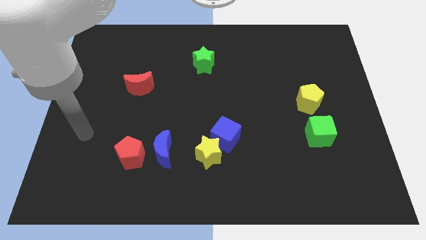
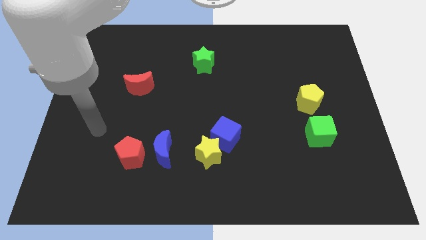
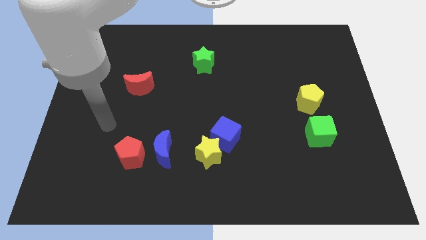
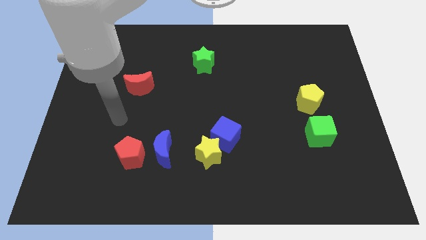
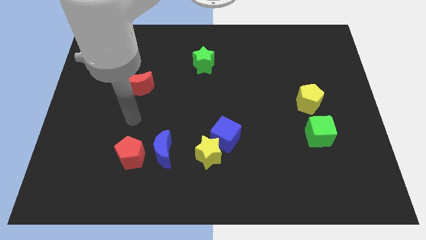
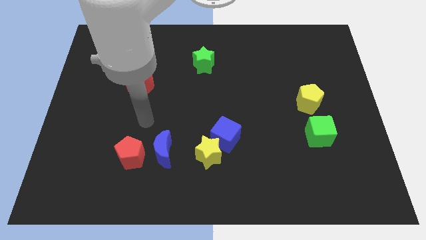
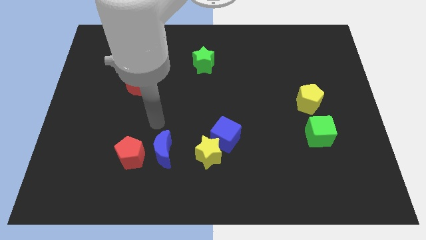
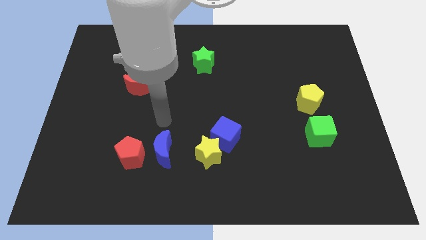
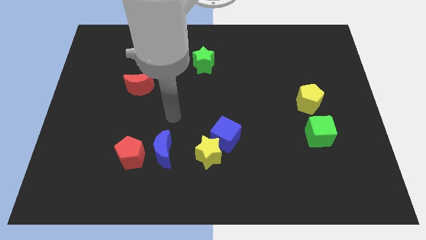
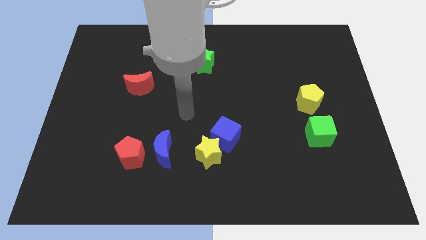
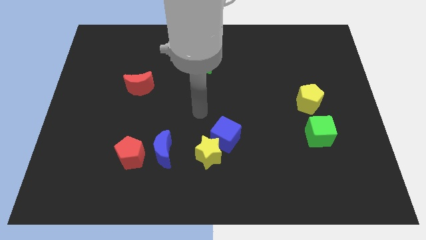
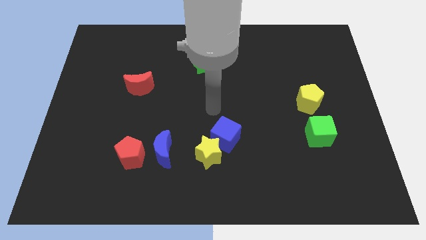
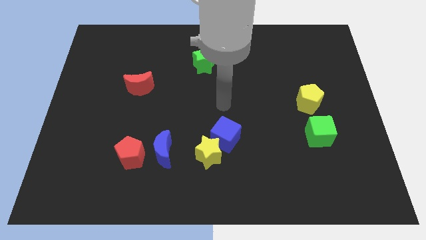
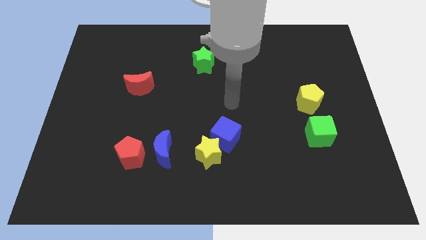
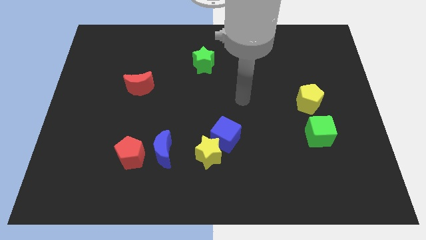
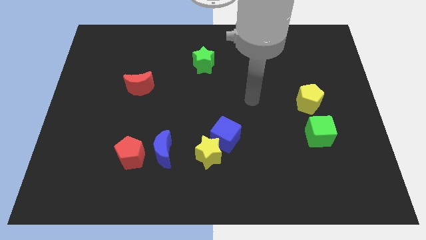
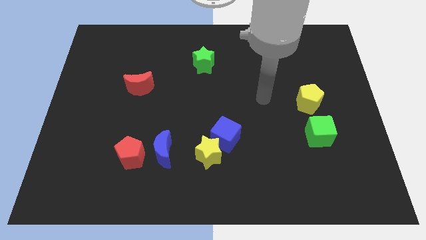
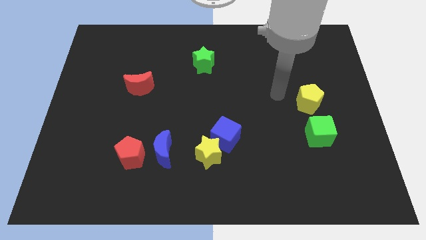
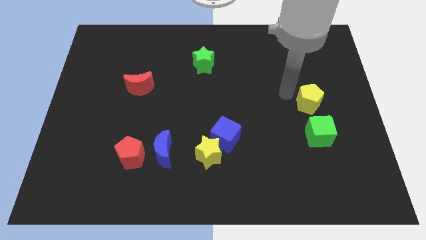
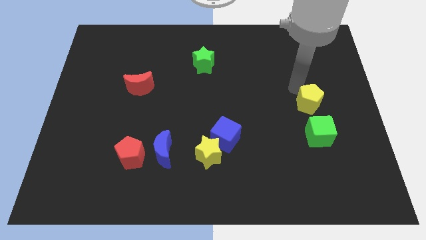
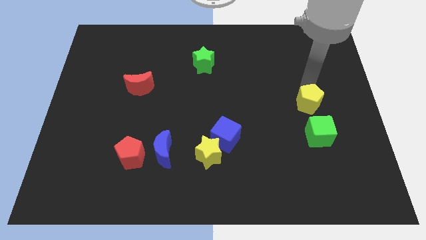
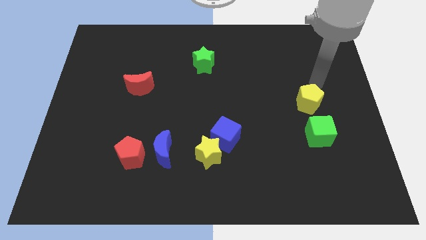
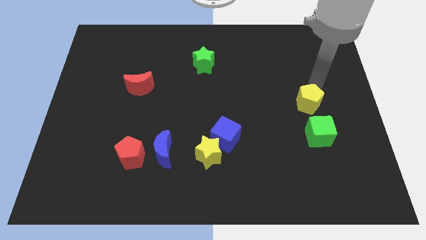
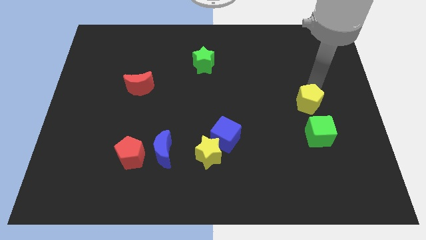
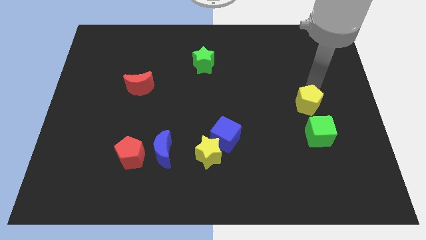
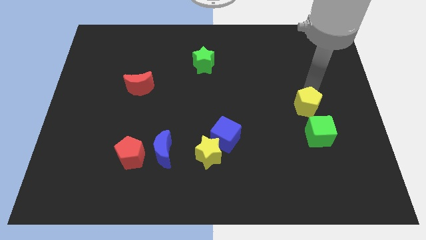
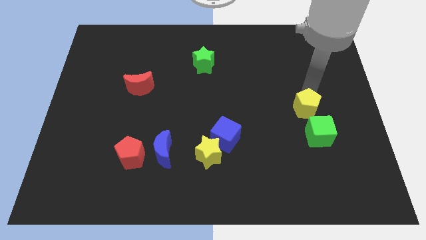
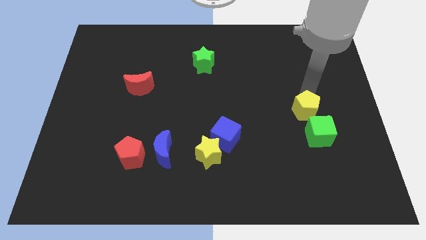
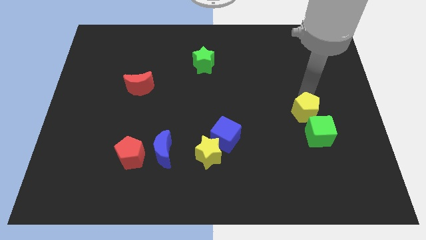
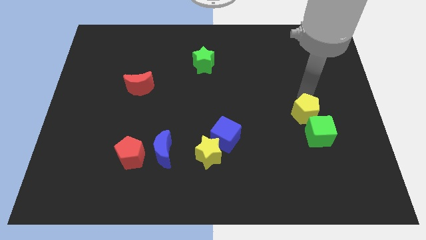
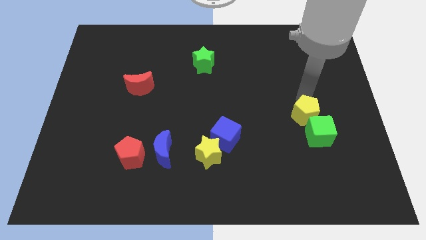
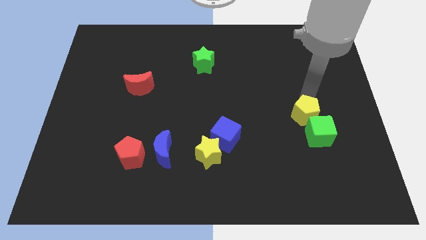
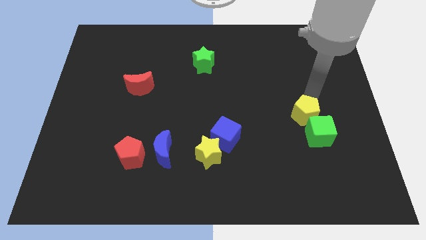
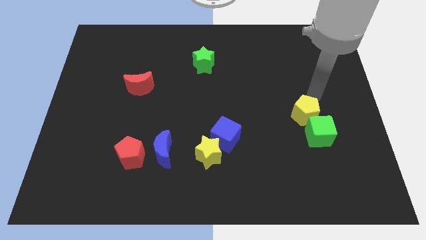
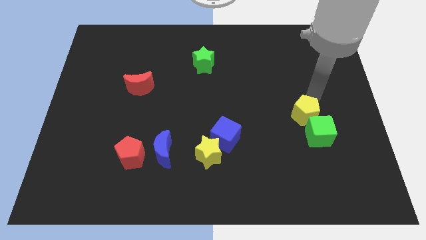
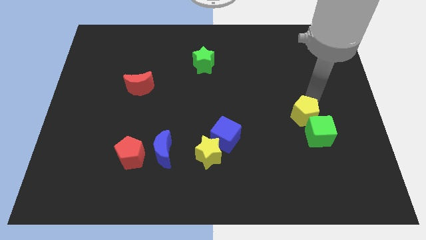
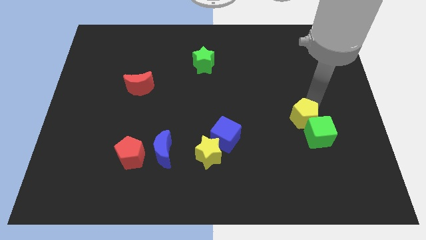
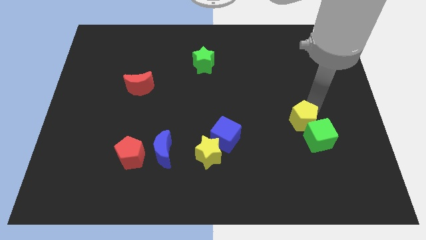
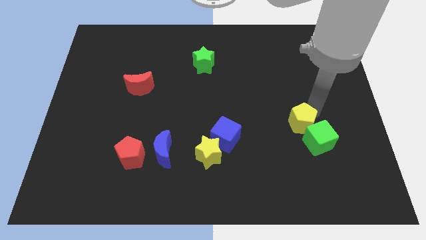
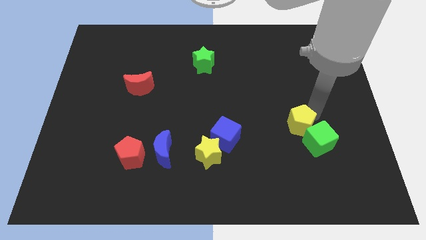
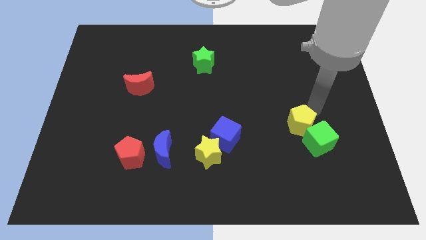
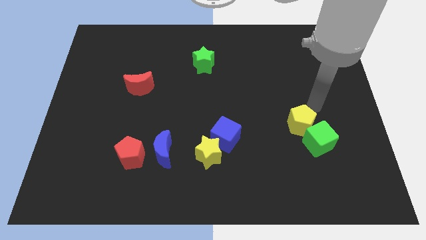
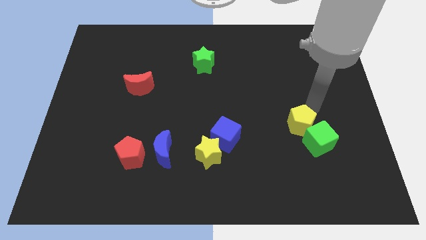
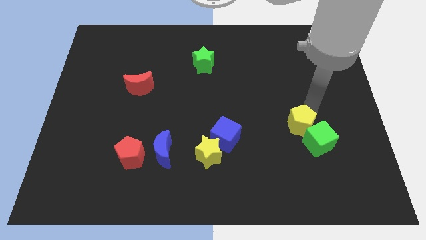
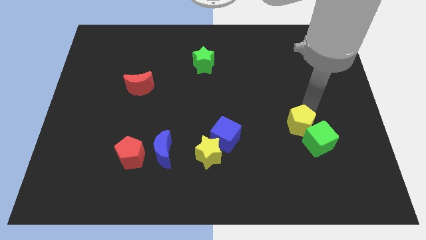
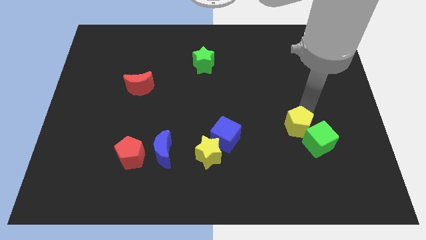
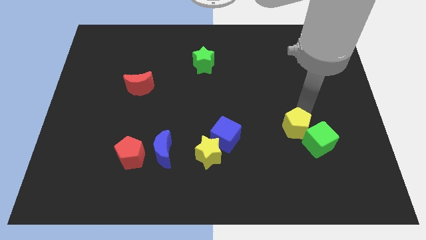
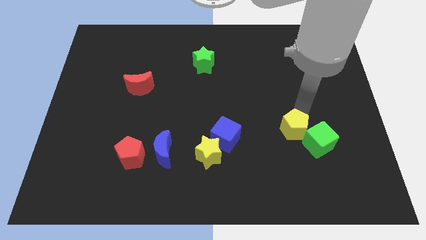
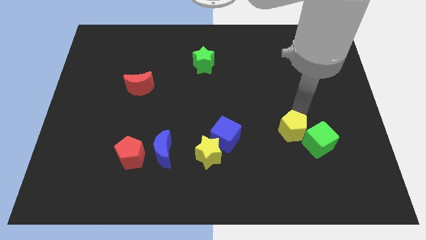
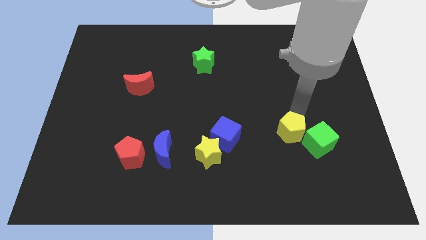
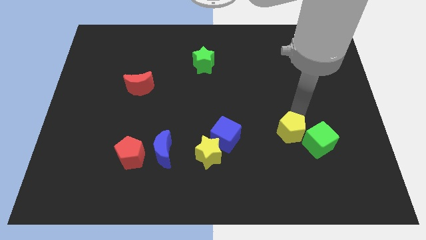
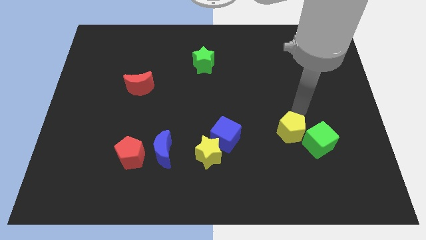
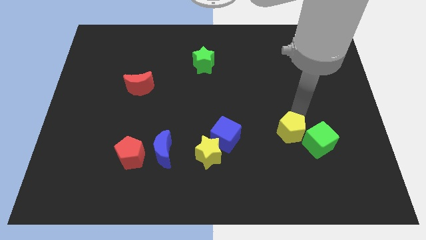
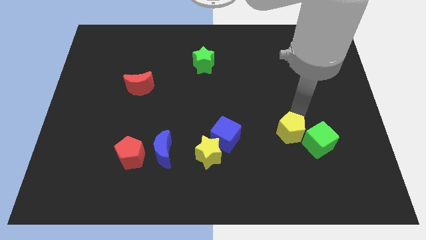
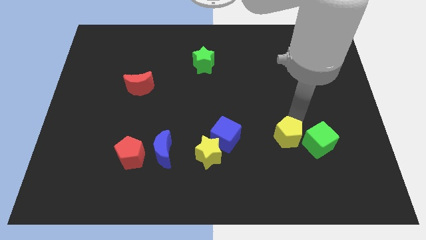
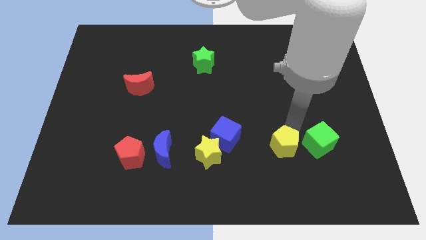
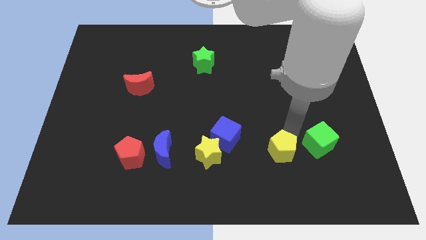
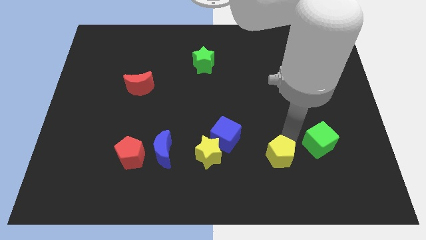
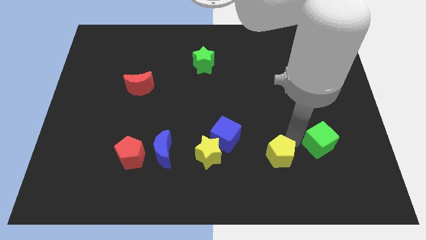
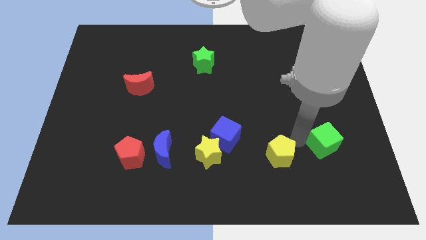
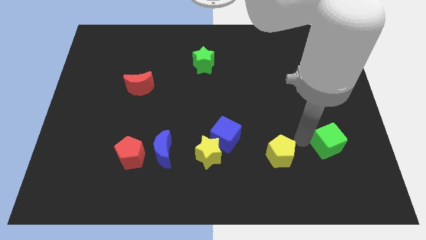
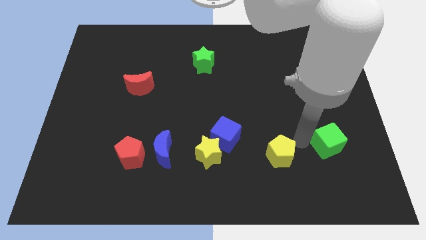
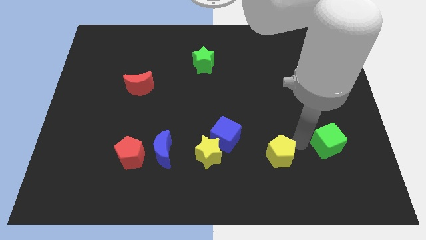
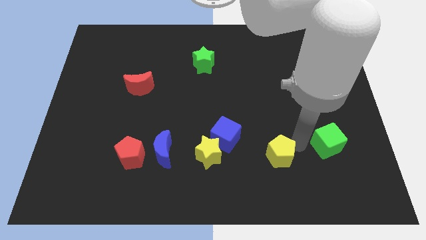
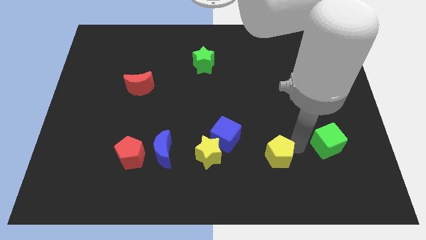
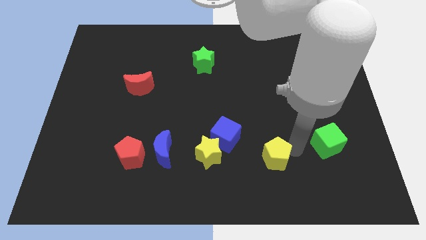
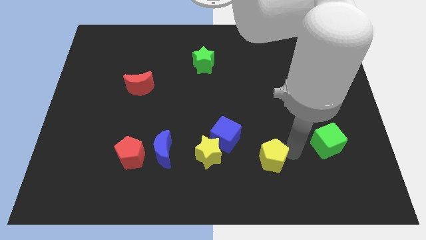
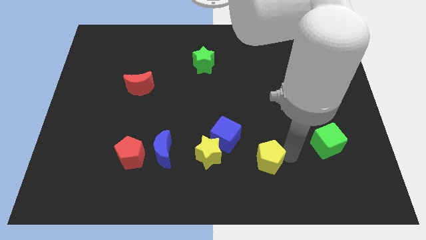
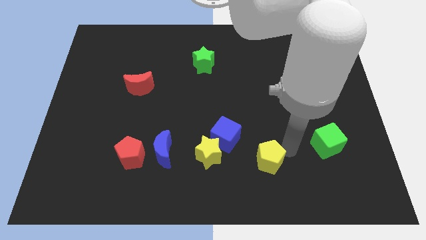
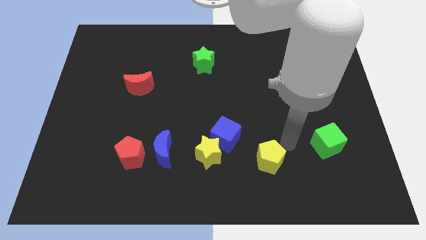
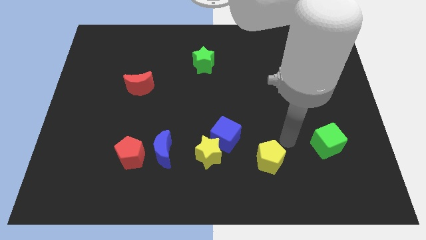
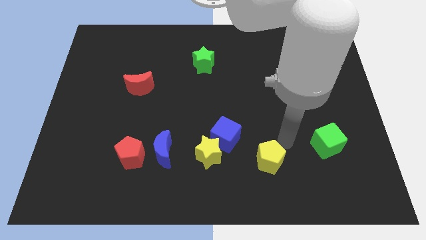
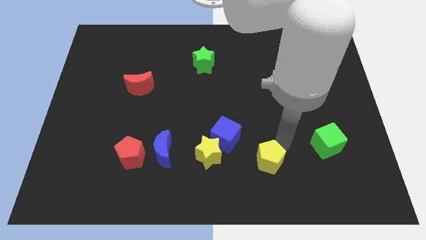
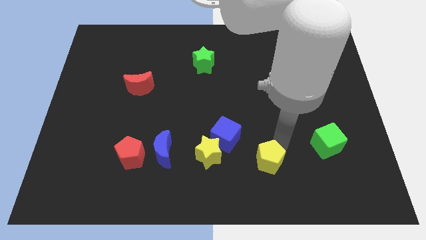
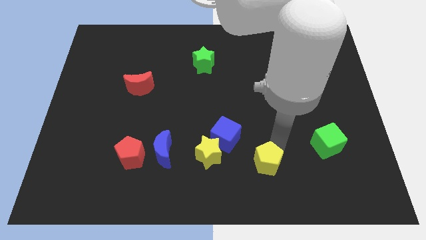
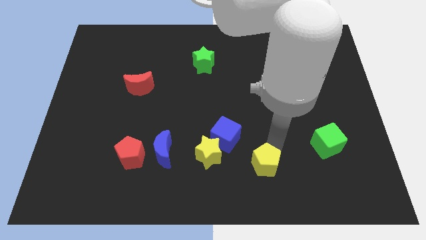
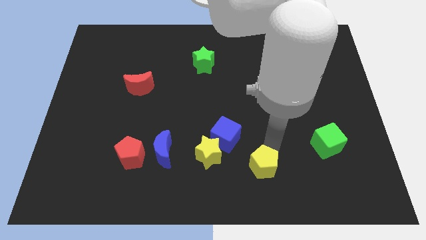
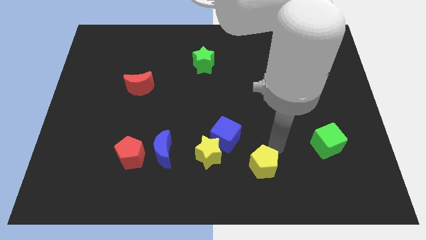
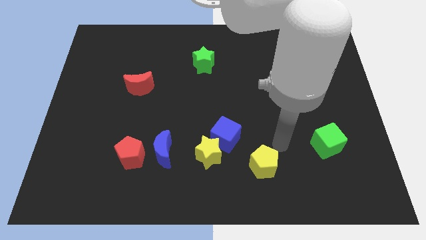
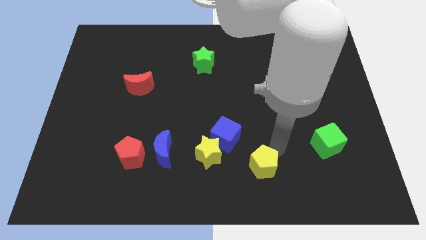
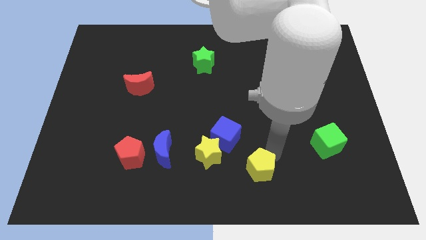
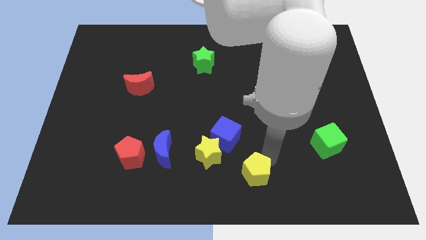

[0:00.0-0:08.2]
put the yellow pentagon to the bottom side
